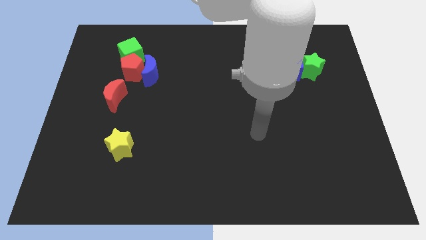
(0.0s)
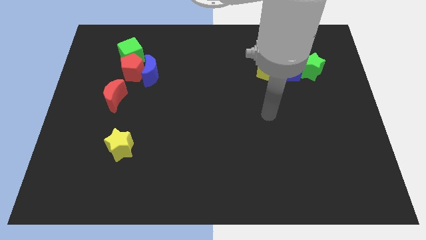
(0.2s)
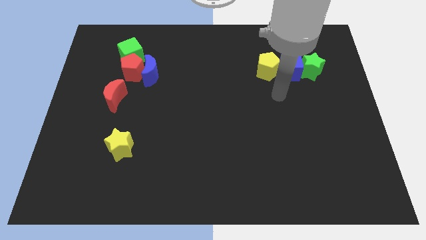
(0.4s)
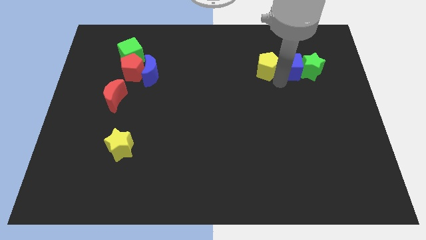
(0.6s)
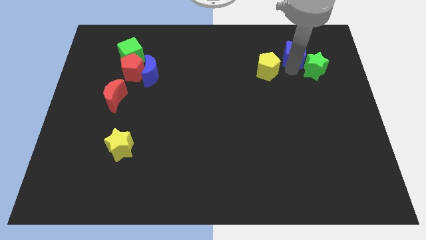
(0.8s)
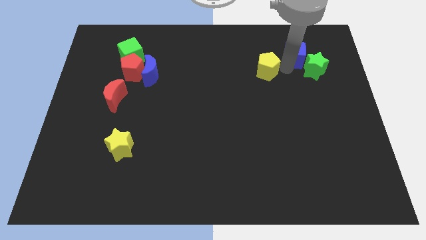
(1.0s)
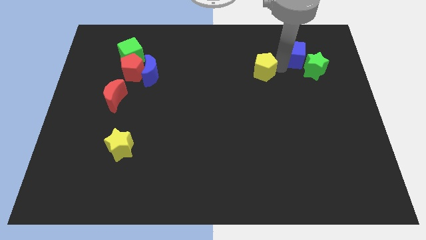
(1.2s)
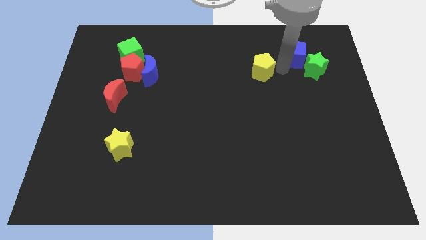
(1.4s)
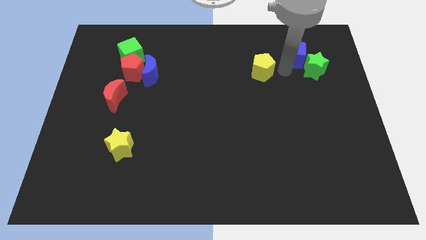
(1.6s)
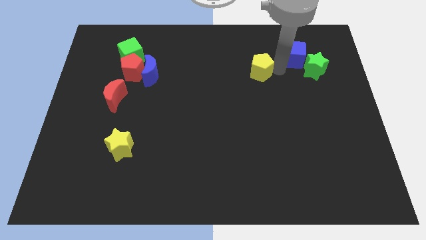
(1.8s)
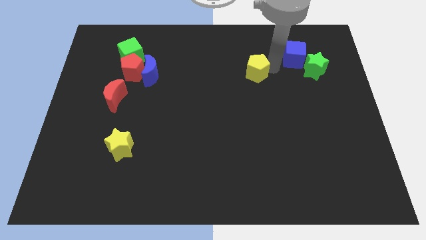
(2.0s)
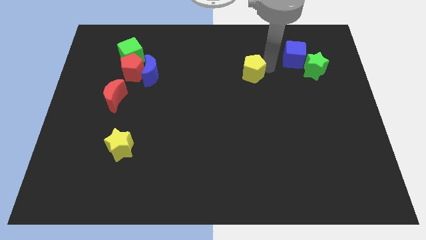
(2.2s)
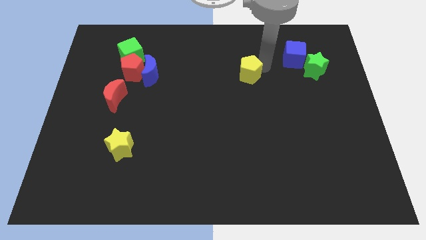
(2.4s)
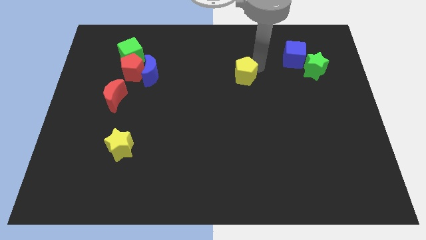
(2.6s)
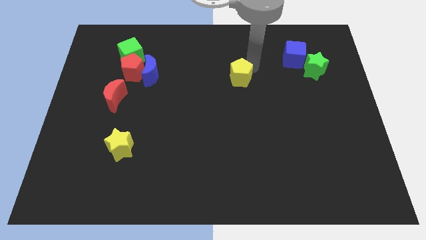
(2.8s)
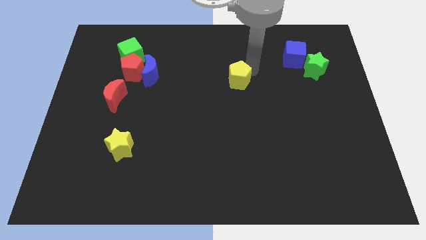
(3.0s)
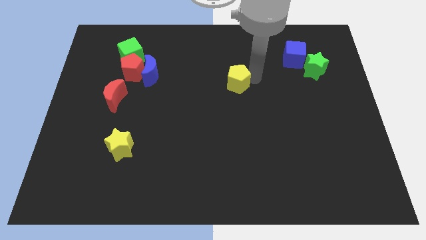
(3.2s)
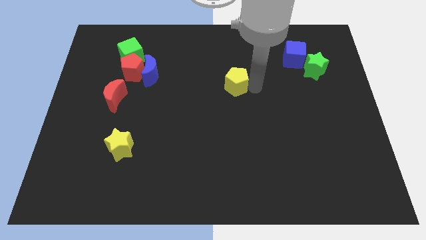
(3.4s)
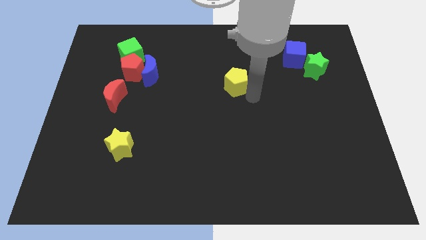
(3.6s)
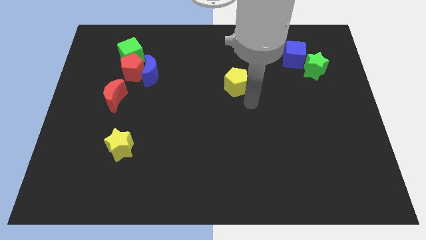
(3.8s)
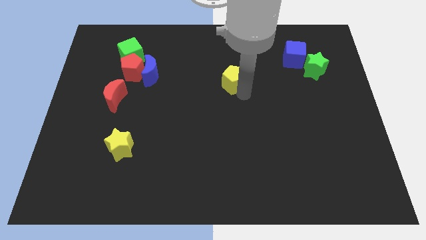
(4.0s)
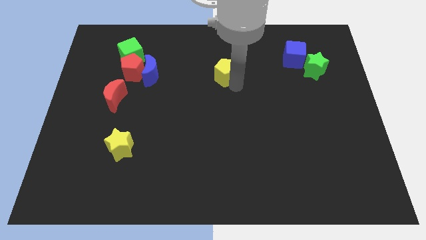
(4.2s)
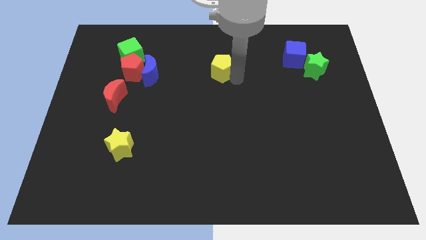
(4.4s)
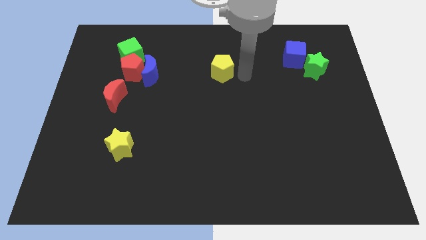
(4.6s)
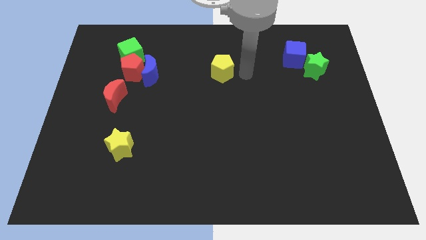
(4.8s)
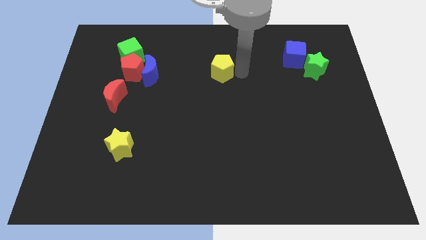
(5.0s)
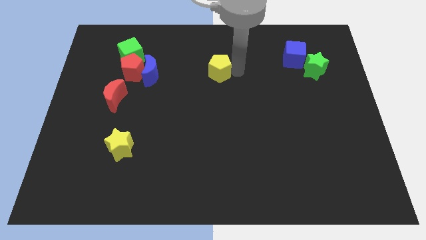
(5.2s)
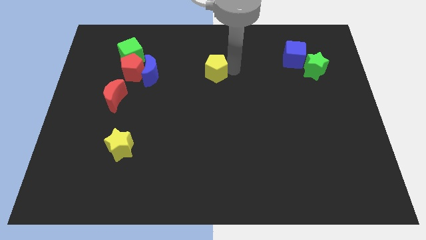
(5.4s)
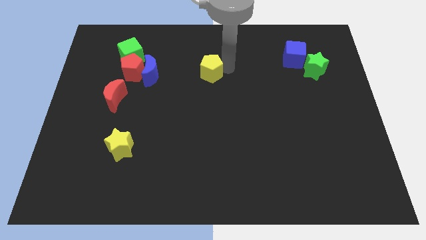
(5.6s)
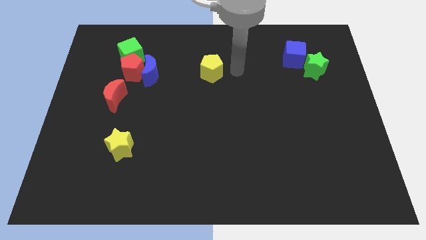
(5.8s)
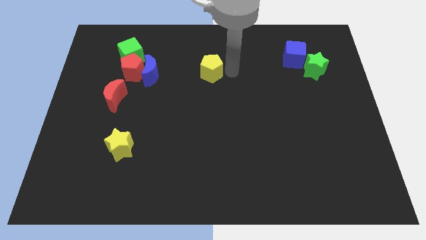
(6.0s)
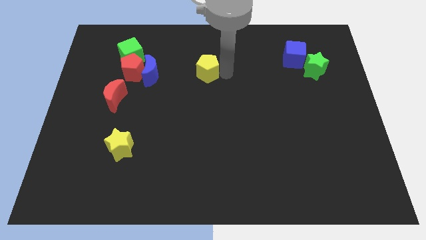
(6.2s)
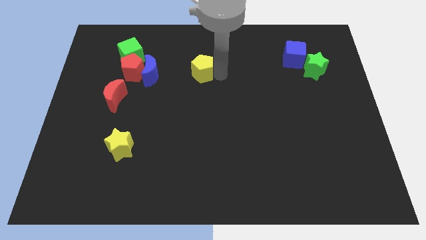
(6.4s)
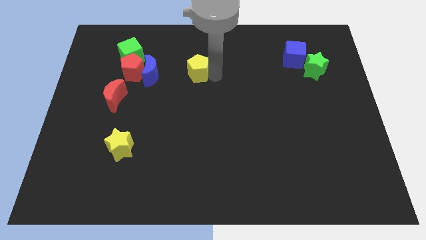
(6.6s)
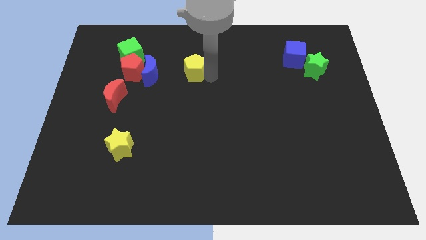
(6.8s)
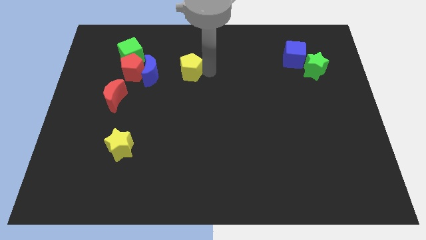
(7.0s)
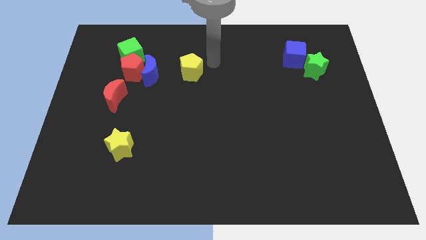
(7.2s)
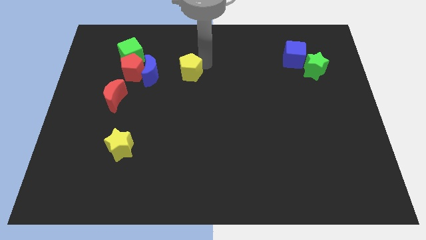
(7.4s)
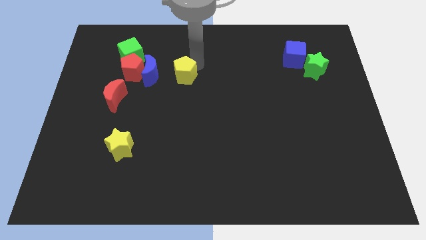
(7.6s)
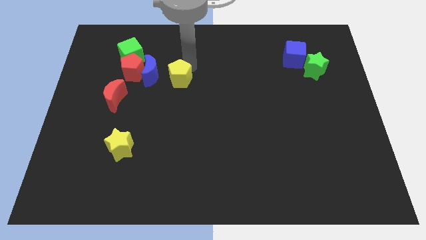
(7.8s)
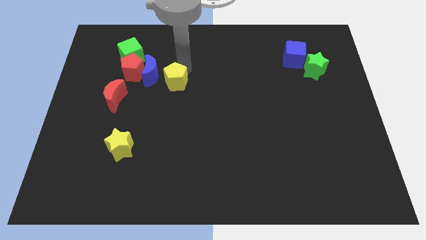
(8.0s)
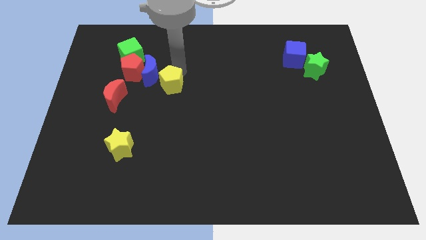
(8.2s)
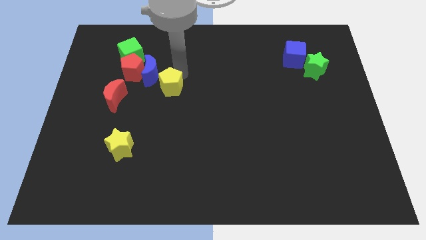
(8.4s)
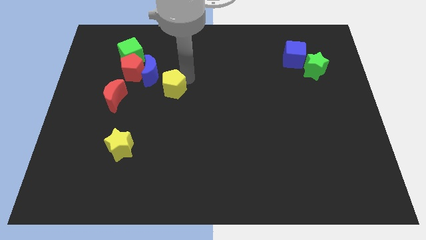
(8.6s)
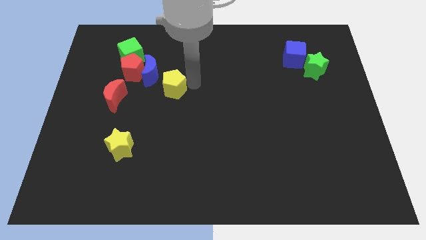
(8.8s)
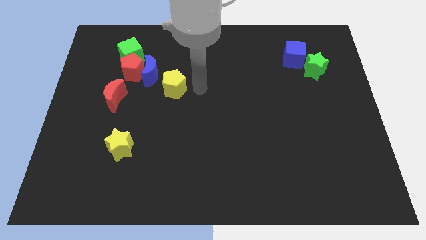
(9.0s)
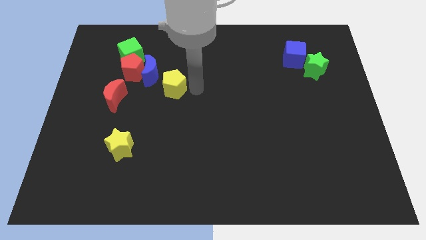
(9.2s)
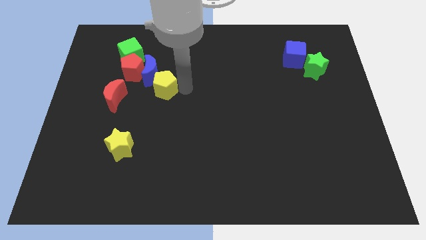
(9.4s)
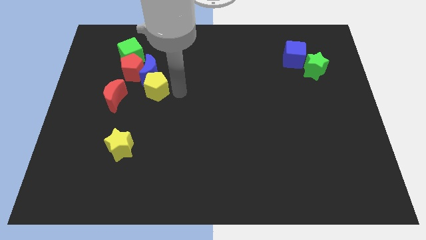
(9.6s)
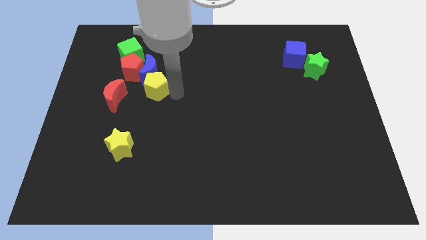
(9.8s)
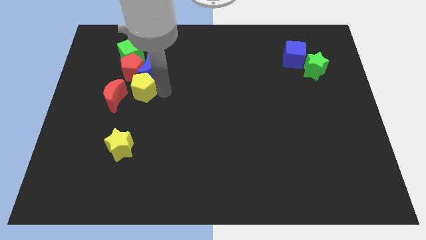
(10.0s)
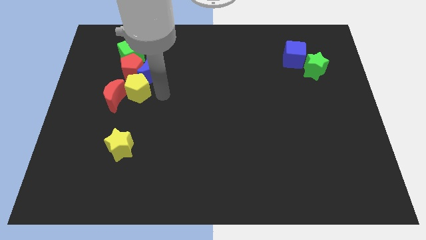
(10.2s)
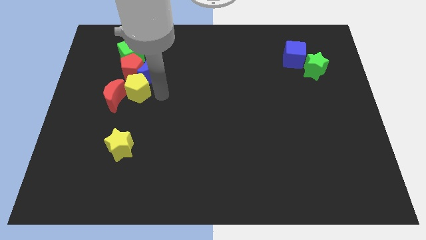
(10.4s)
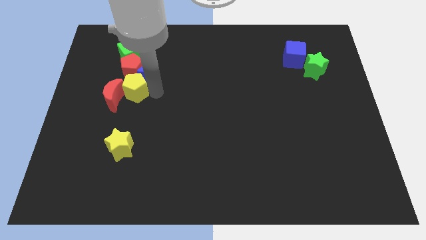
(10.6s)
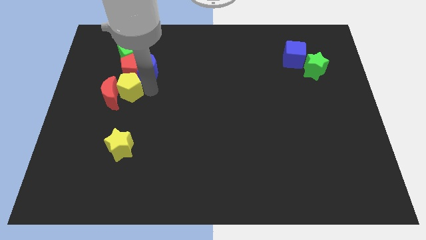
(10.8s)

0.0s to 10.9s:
push the yellow pentagon to the bottom left of the red pentagon
